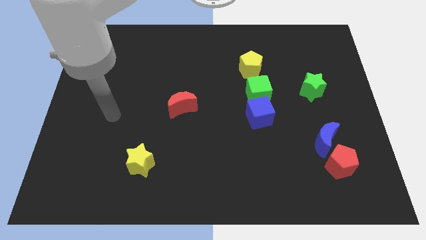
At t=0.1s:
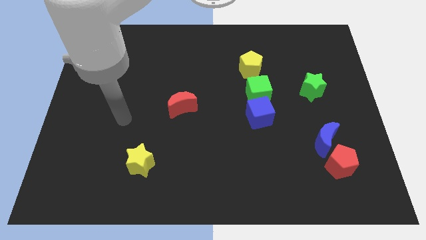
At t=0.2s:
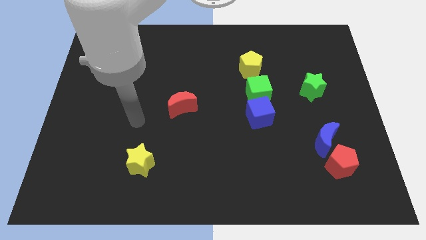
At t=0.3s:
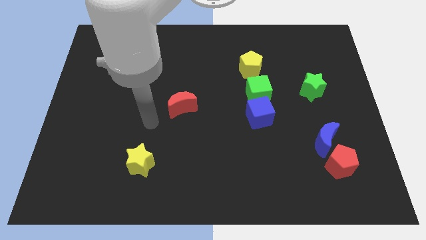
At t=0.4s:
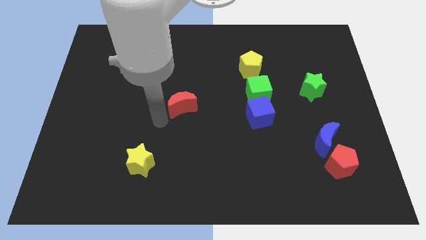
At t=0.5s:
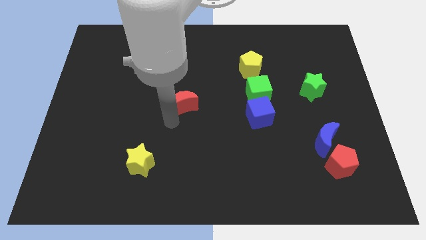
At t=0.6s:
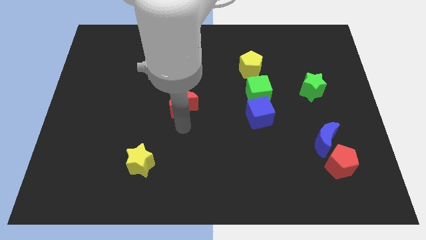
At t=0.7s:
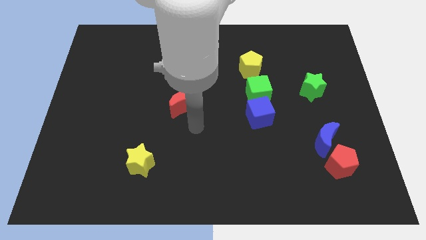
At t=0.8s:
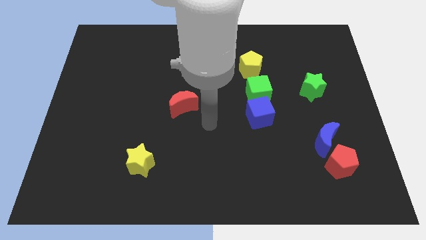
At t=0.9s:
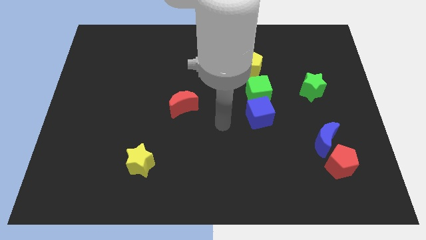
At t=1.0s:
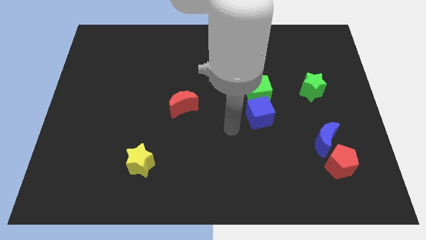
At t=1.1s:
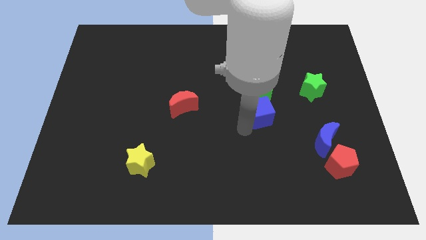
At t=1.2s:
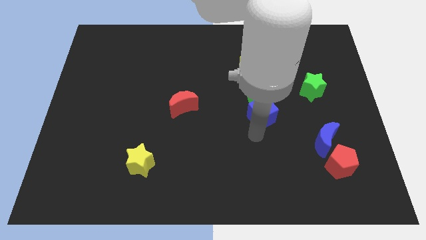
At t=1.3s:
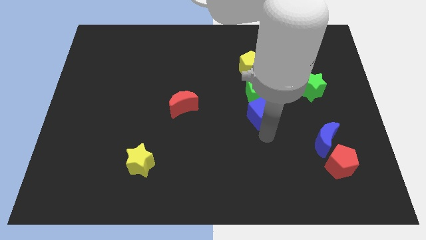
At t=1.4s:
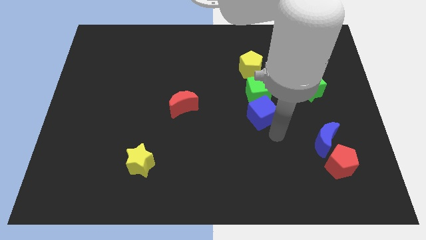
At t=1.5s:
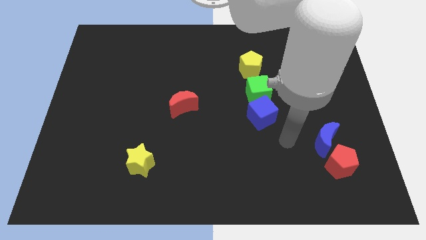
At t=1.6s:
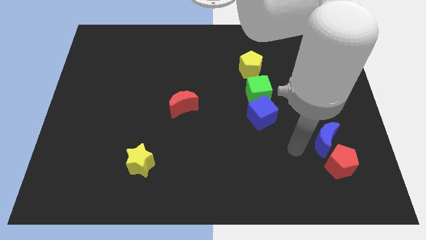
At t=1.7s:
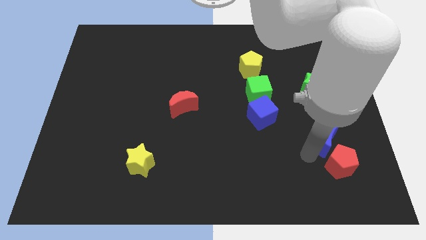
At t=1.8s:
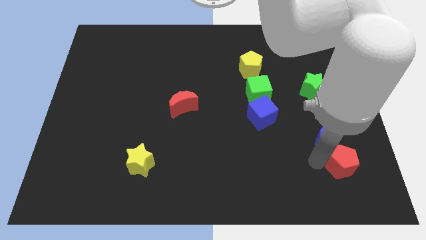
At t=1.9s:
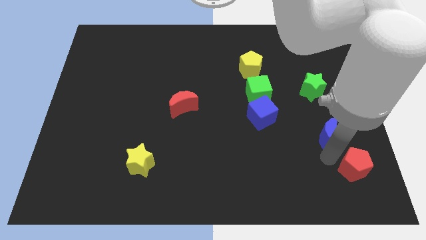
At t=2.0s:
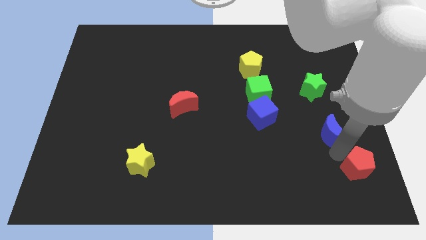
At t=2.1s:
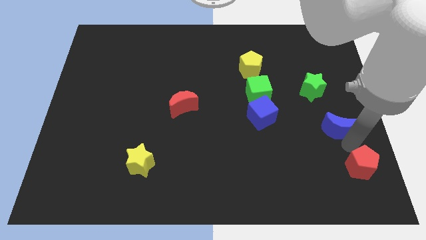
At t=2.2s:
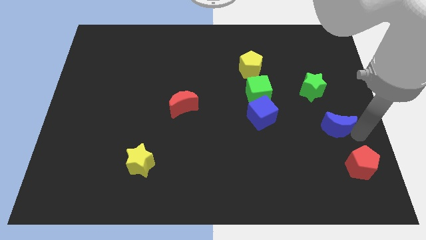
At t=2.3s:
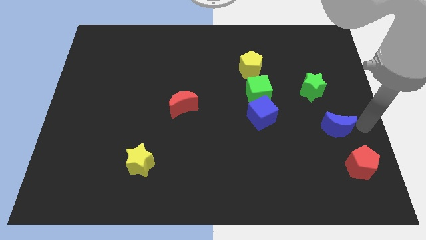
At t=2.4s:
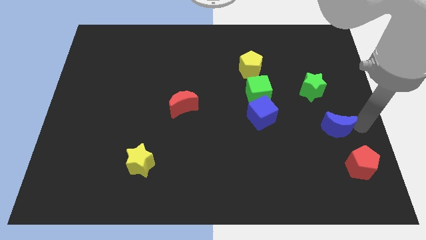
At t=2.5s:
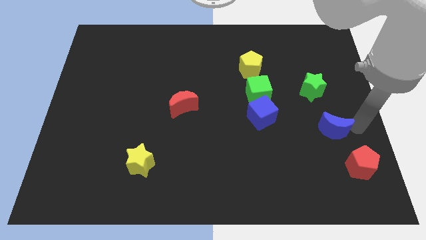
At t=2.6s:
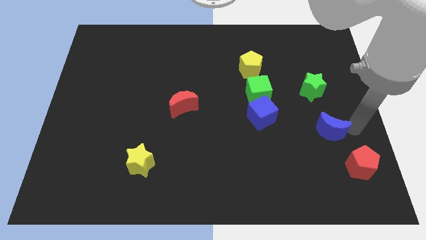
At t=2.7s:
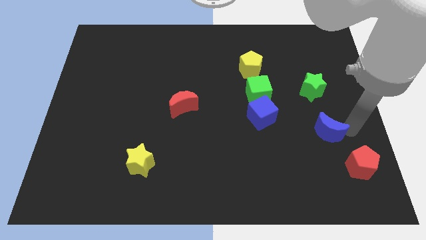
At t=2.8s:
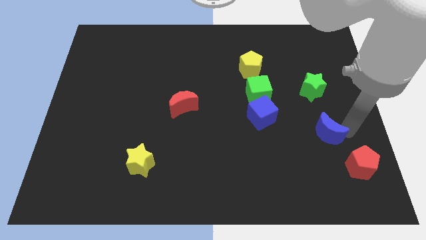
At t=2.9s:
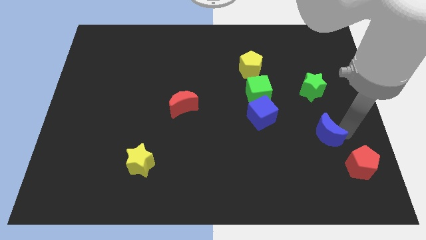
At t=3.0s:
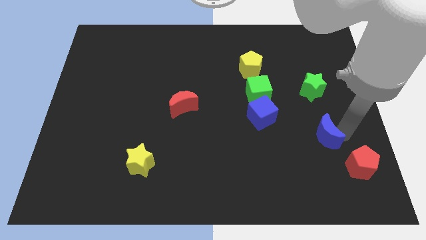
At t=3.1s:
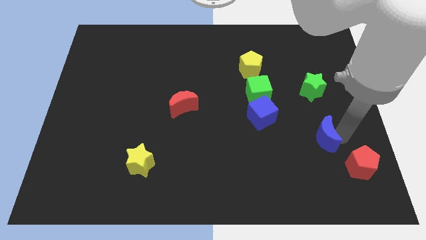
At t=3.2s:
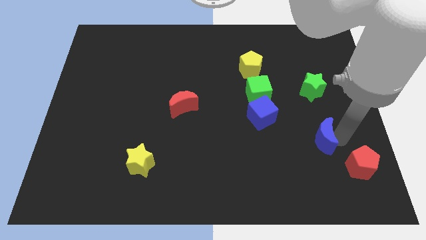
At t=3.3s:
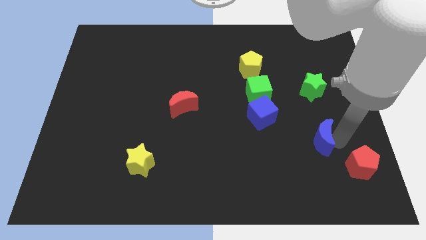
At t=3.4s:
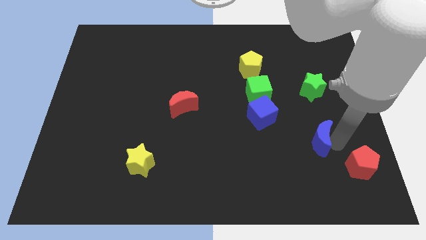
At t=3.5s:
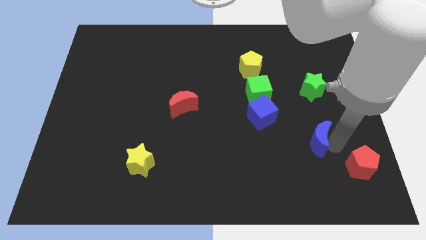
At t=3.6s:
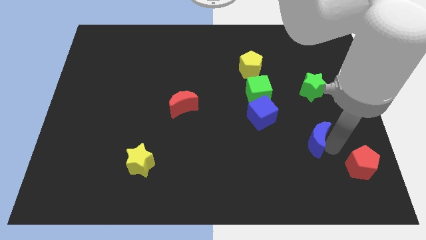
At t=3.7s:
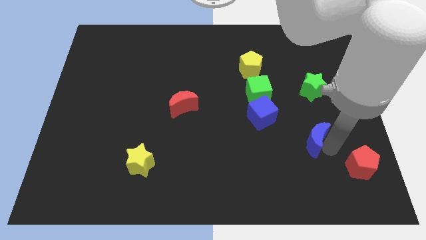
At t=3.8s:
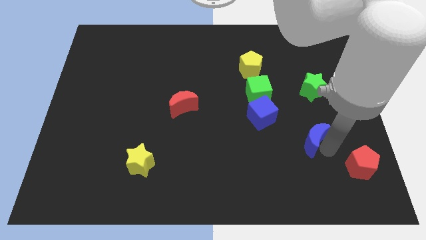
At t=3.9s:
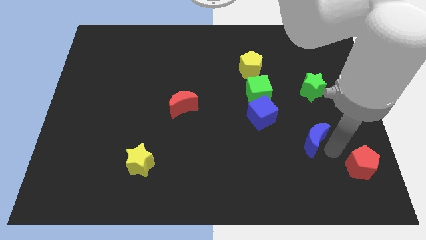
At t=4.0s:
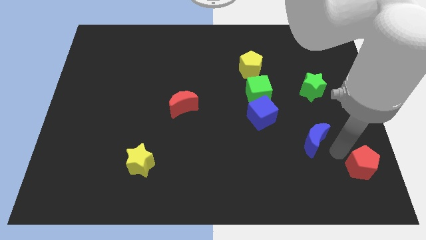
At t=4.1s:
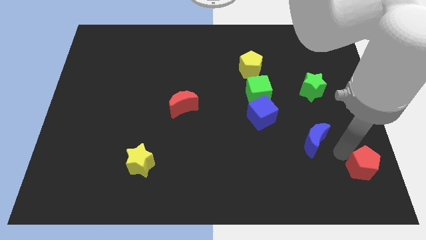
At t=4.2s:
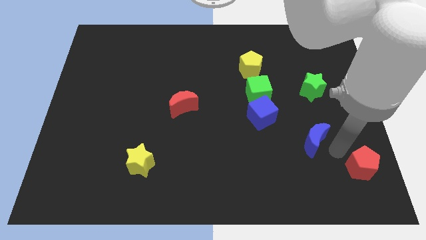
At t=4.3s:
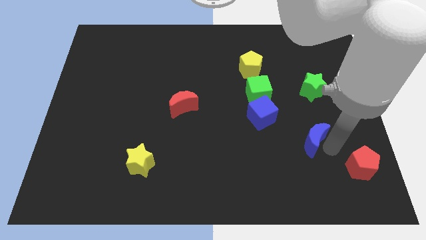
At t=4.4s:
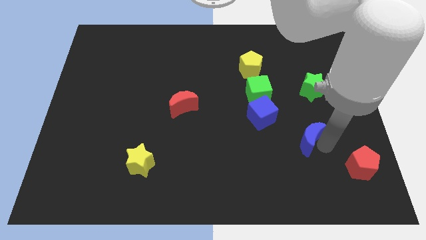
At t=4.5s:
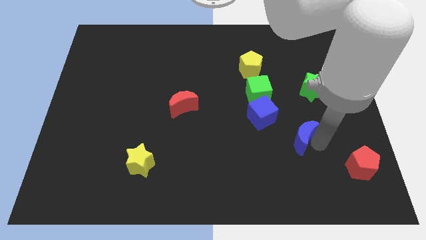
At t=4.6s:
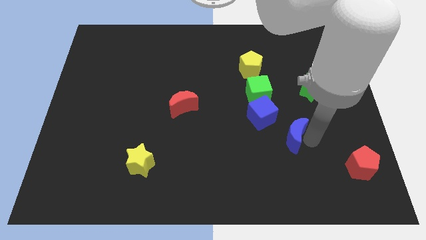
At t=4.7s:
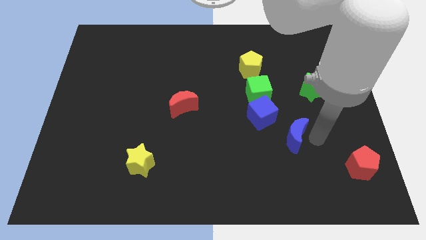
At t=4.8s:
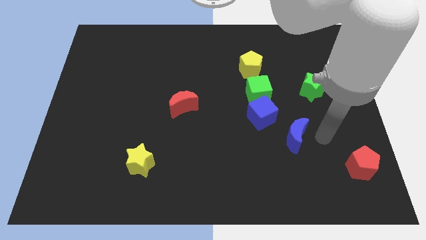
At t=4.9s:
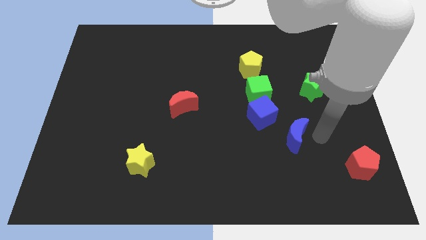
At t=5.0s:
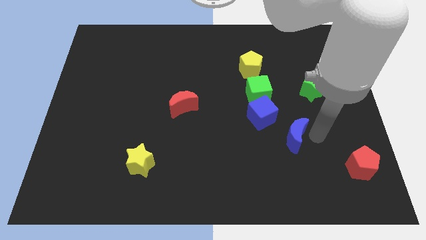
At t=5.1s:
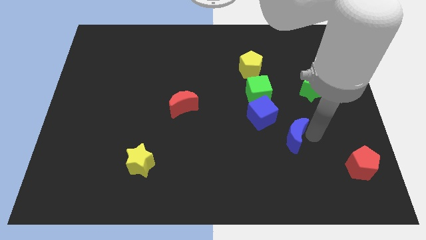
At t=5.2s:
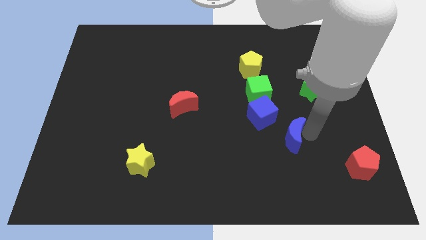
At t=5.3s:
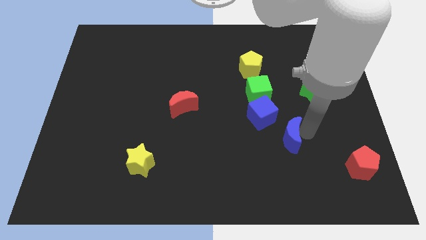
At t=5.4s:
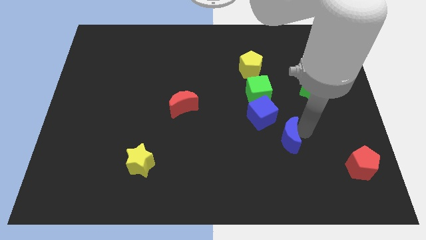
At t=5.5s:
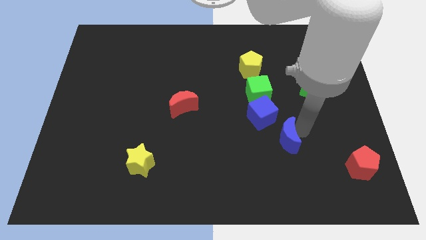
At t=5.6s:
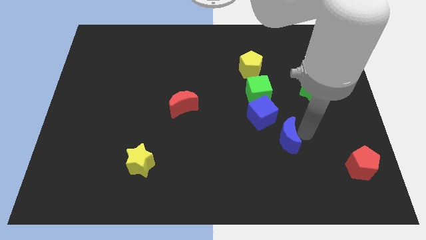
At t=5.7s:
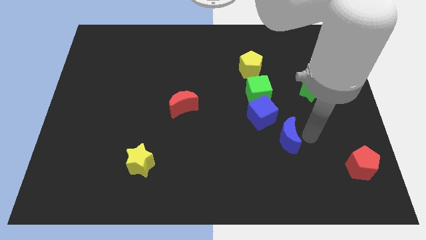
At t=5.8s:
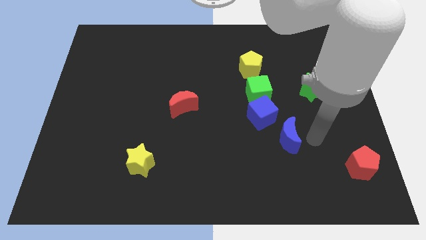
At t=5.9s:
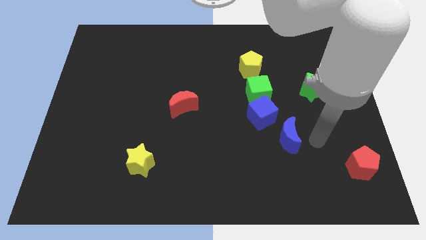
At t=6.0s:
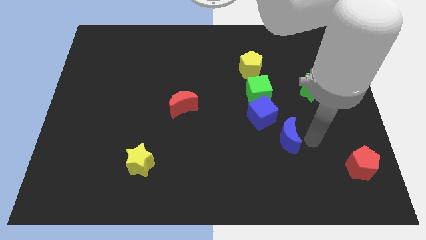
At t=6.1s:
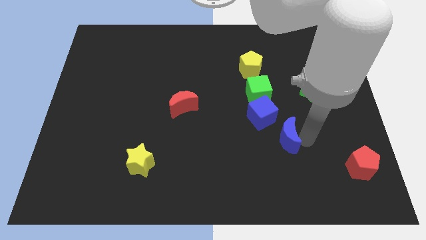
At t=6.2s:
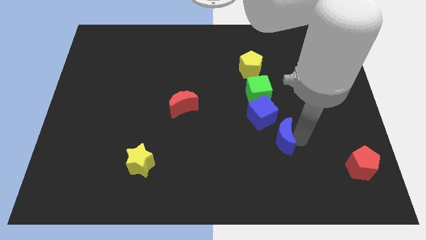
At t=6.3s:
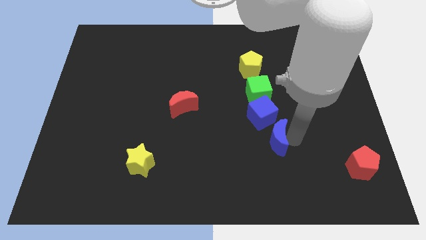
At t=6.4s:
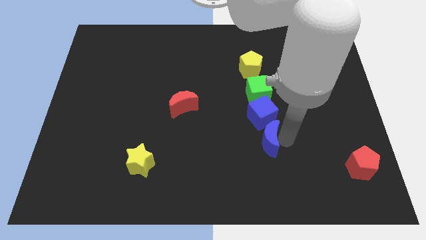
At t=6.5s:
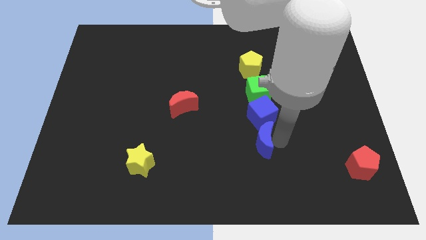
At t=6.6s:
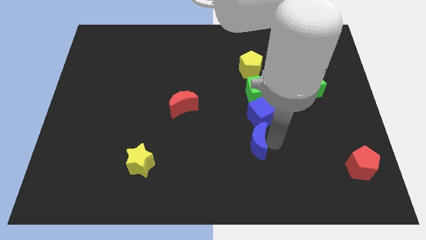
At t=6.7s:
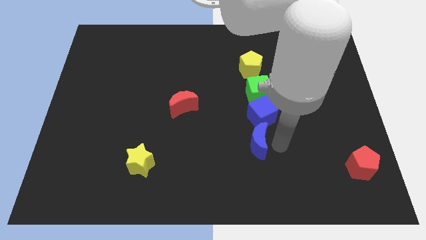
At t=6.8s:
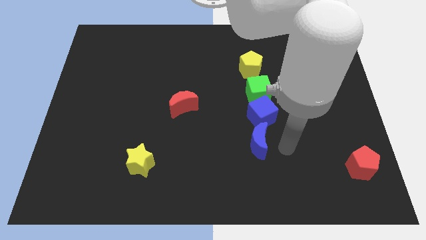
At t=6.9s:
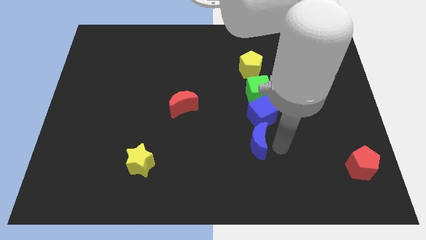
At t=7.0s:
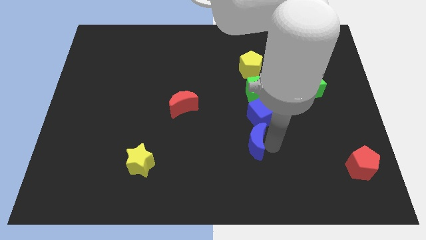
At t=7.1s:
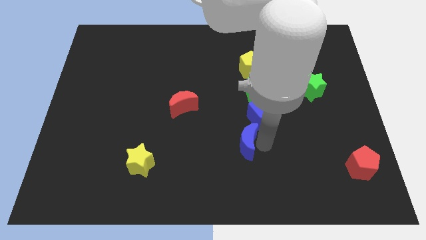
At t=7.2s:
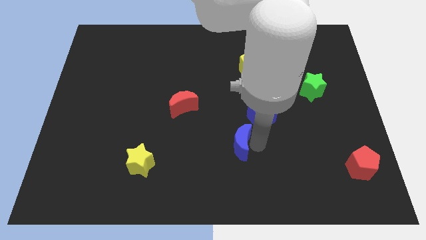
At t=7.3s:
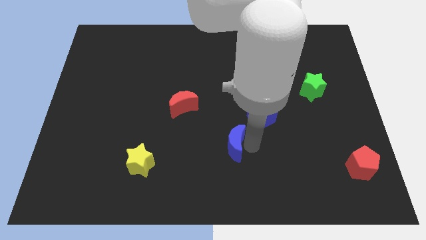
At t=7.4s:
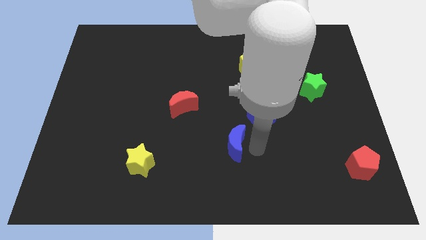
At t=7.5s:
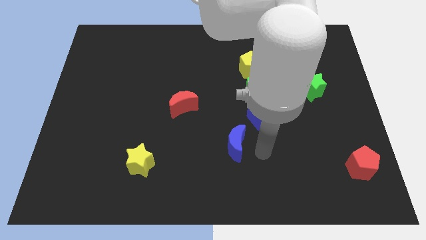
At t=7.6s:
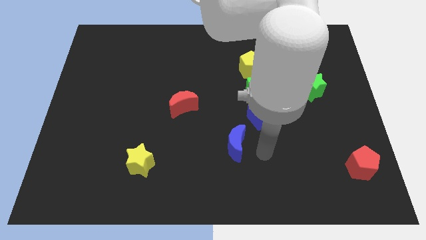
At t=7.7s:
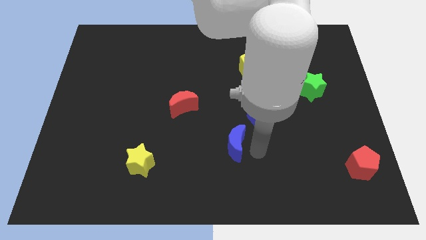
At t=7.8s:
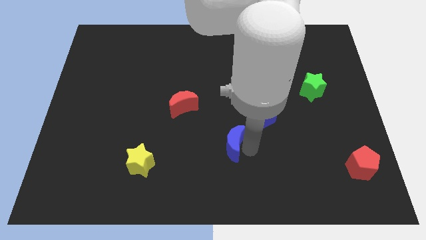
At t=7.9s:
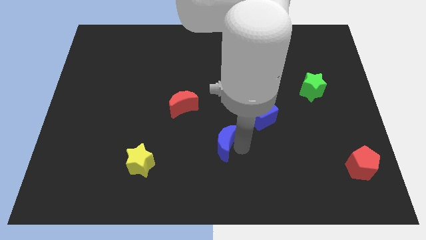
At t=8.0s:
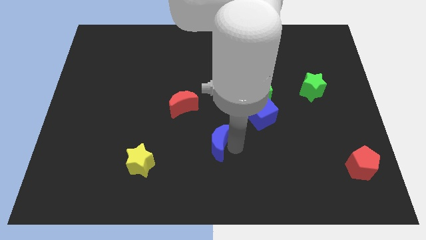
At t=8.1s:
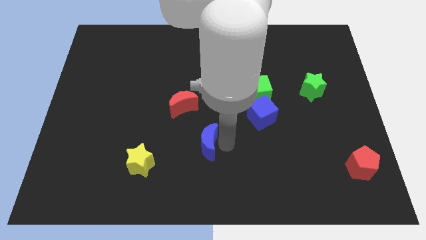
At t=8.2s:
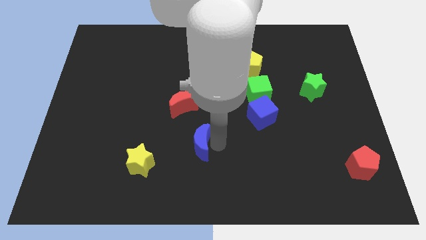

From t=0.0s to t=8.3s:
move the blue moon below the red moon
